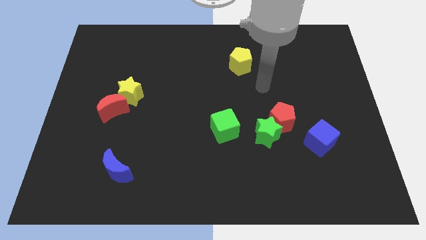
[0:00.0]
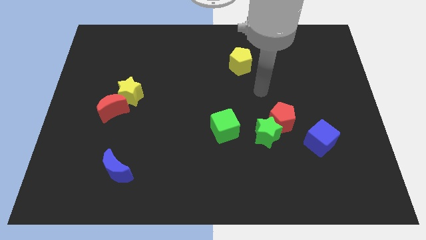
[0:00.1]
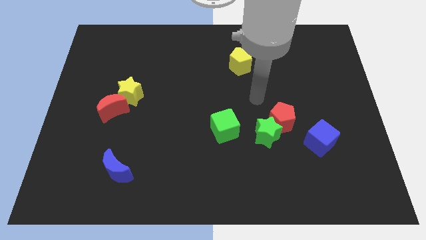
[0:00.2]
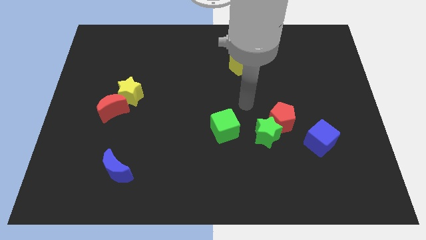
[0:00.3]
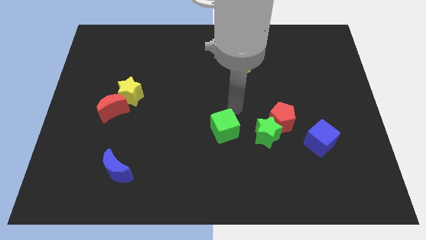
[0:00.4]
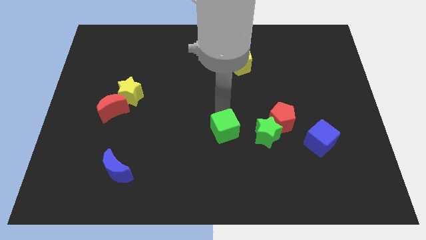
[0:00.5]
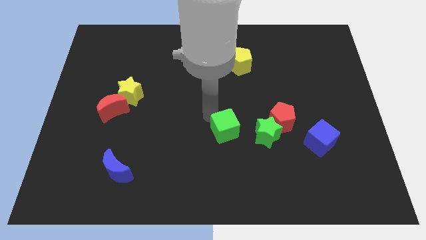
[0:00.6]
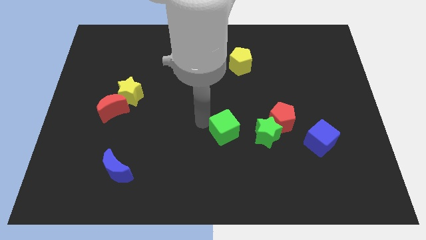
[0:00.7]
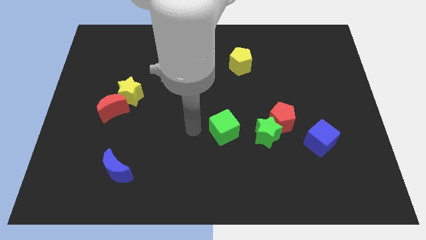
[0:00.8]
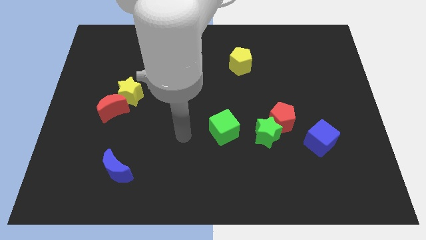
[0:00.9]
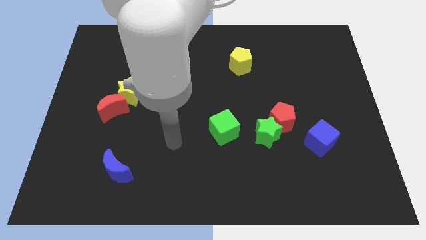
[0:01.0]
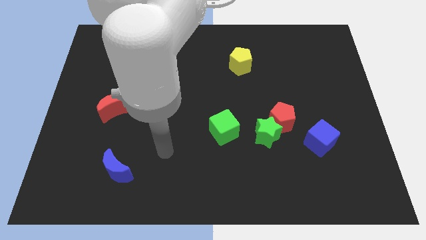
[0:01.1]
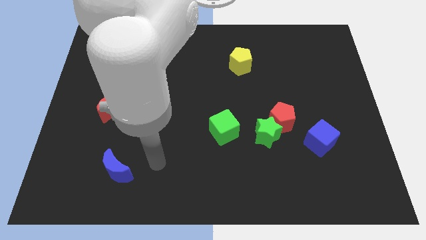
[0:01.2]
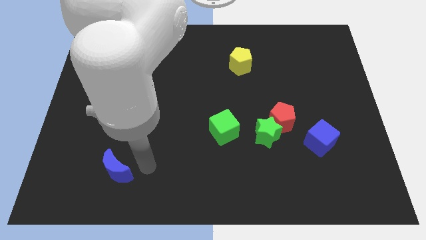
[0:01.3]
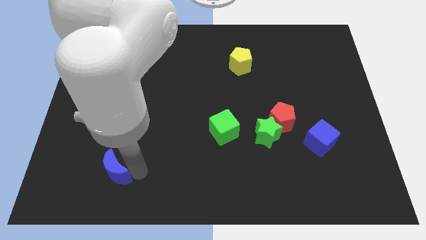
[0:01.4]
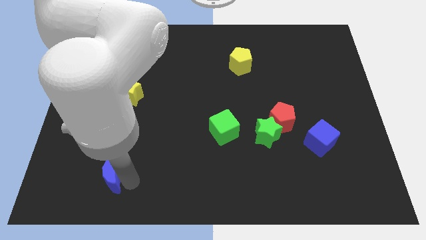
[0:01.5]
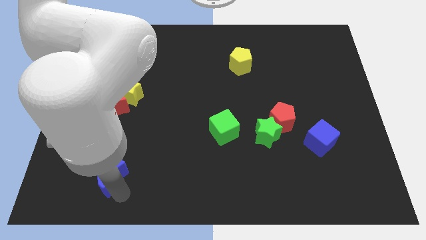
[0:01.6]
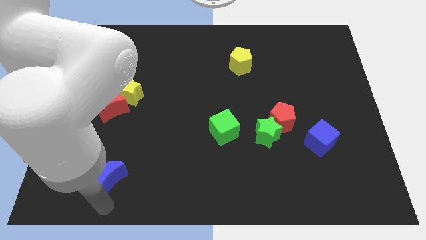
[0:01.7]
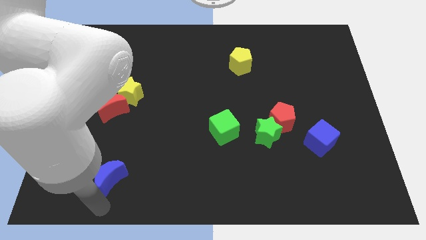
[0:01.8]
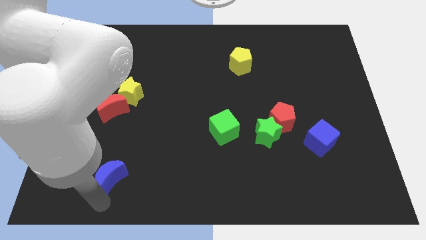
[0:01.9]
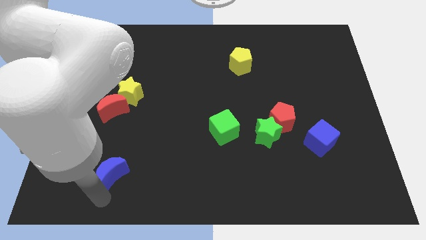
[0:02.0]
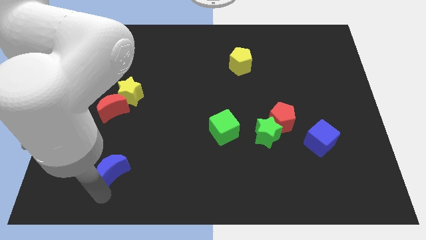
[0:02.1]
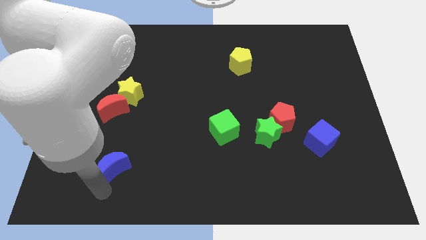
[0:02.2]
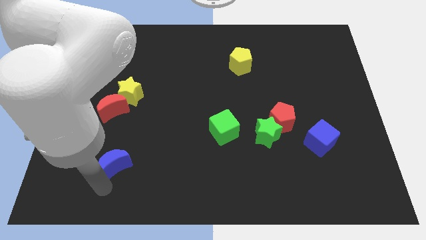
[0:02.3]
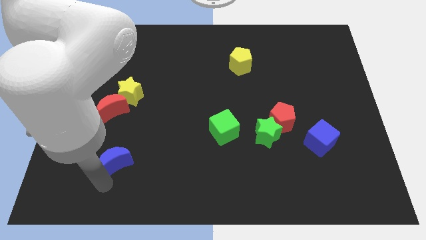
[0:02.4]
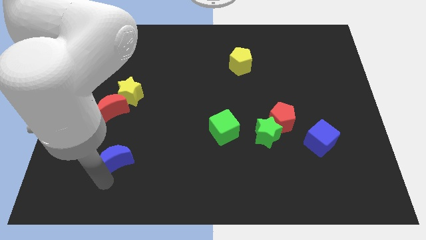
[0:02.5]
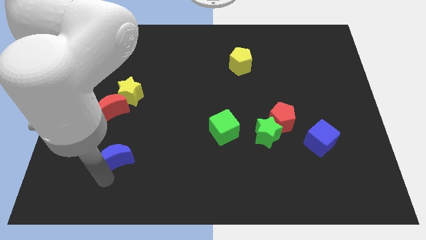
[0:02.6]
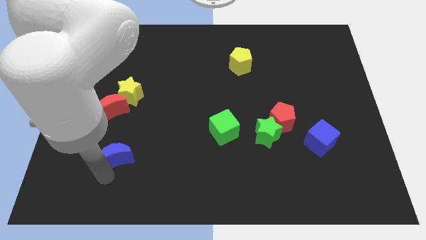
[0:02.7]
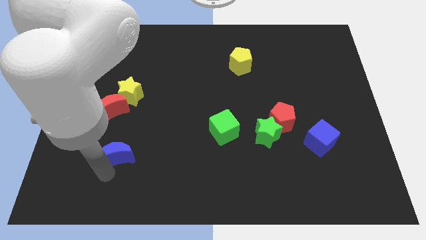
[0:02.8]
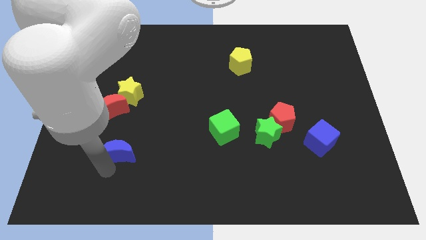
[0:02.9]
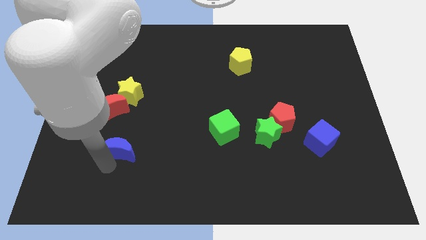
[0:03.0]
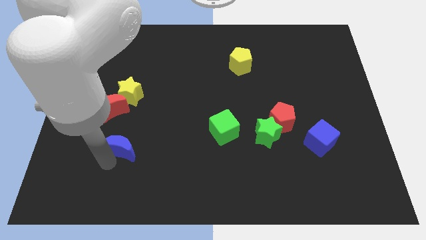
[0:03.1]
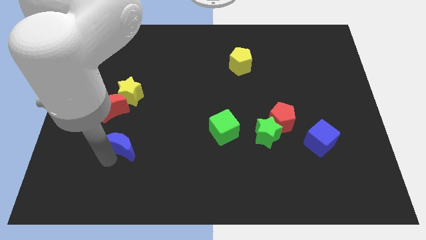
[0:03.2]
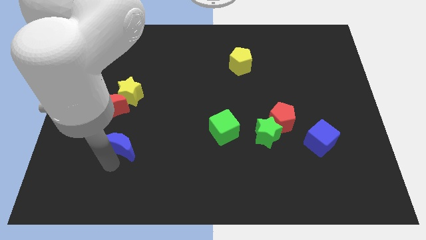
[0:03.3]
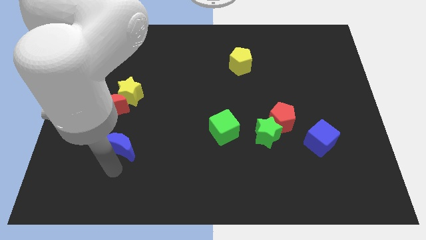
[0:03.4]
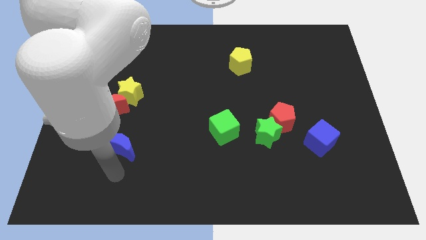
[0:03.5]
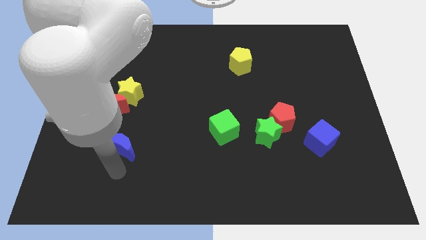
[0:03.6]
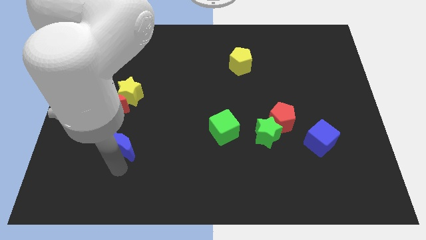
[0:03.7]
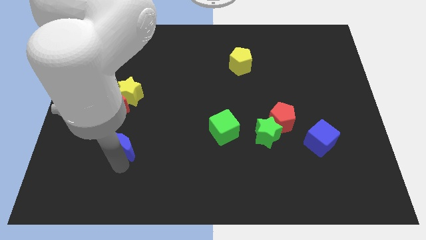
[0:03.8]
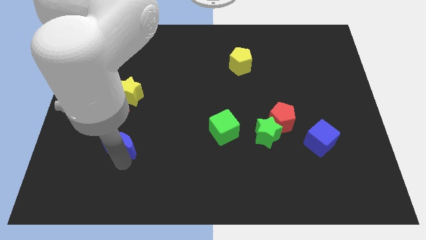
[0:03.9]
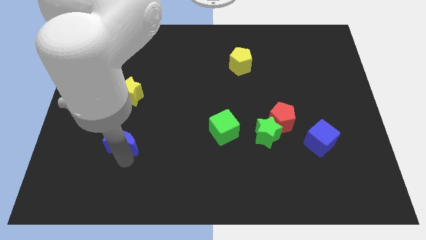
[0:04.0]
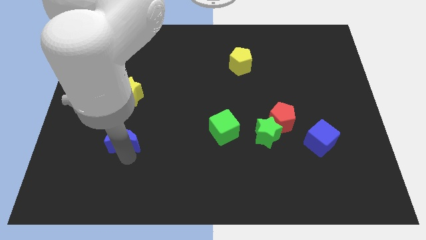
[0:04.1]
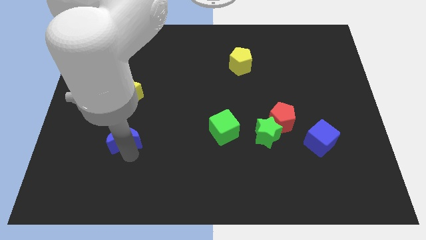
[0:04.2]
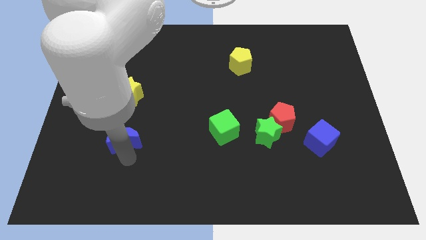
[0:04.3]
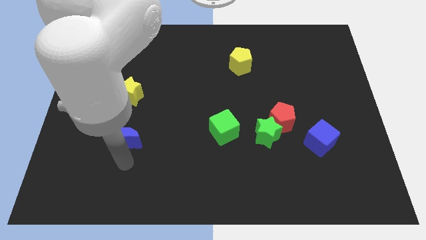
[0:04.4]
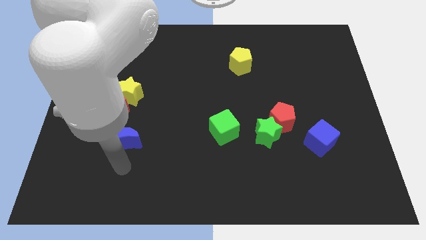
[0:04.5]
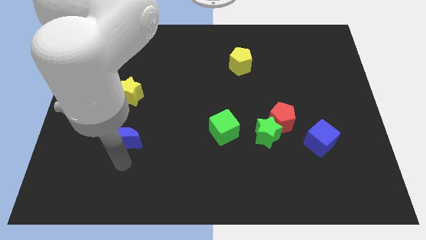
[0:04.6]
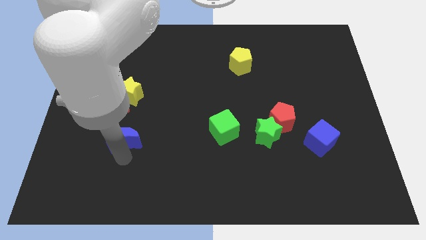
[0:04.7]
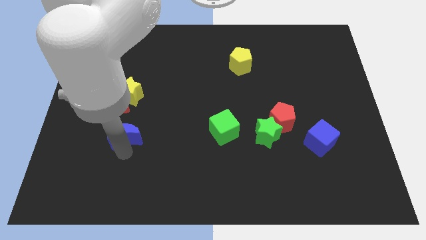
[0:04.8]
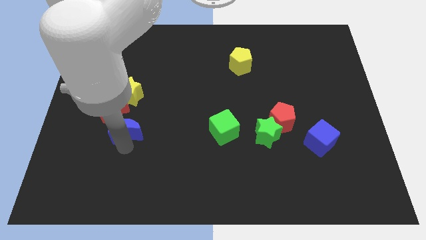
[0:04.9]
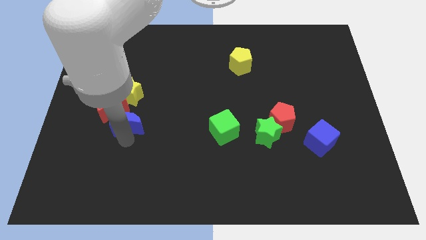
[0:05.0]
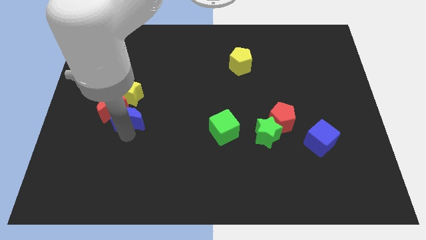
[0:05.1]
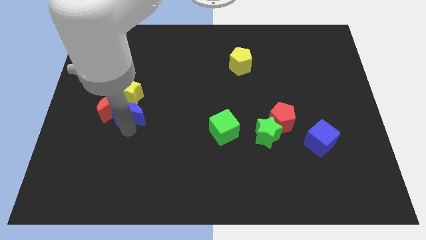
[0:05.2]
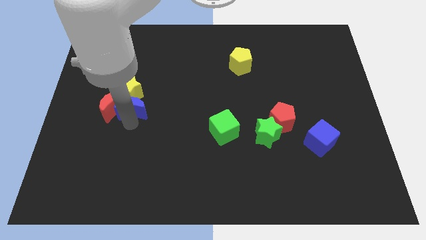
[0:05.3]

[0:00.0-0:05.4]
push the blue moon close to the yellow star

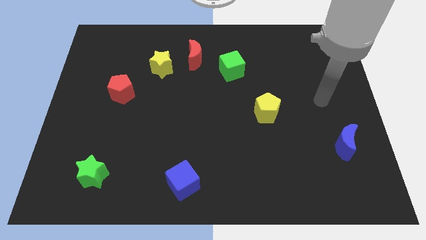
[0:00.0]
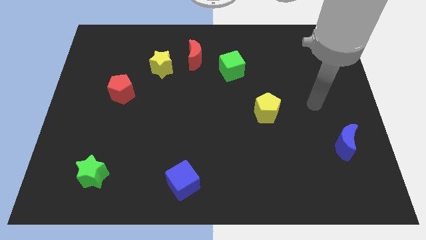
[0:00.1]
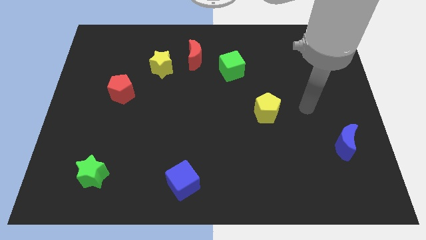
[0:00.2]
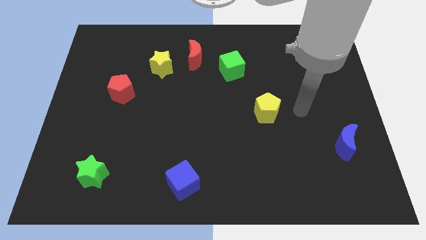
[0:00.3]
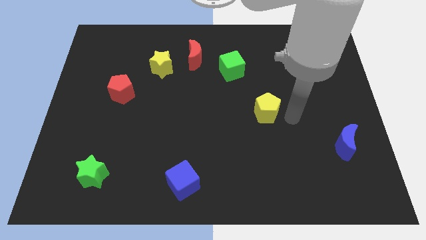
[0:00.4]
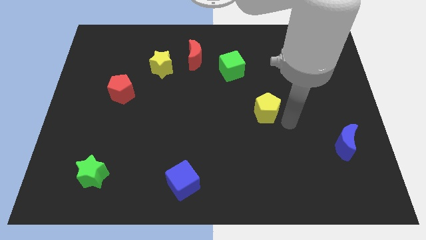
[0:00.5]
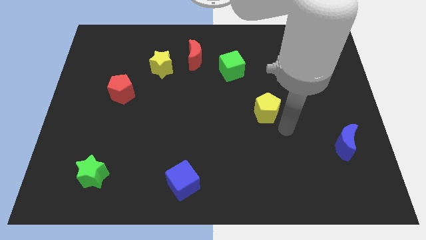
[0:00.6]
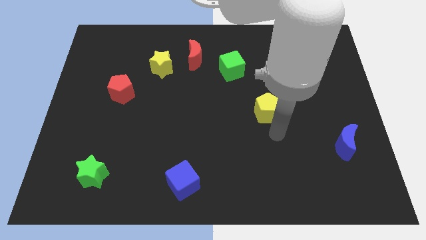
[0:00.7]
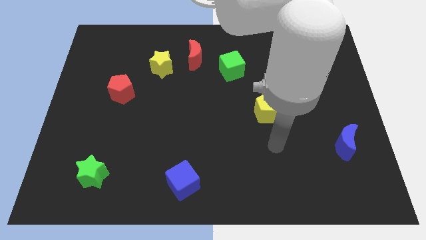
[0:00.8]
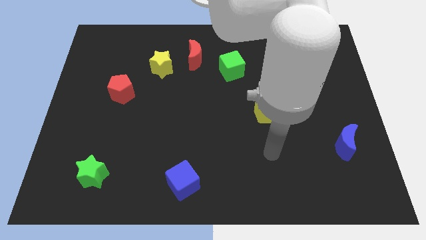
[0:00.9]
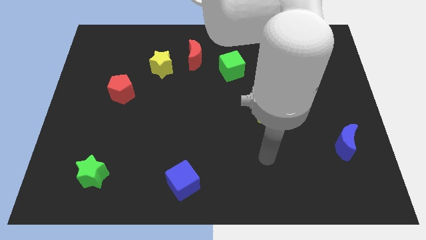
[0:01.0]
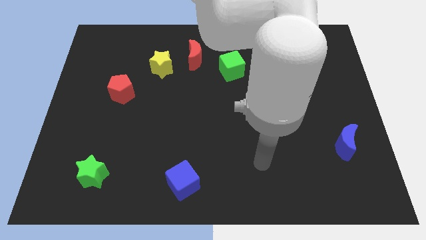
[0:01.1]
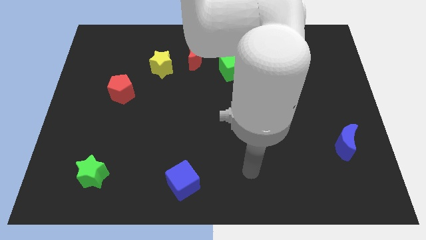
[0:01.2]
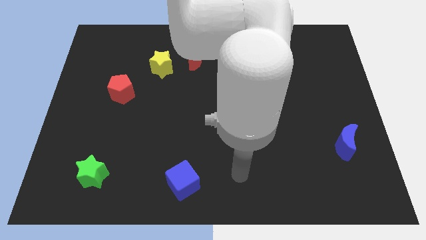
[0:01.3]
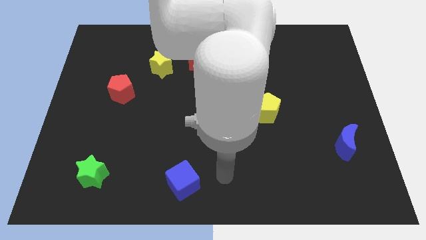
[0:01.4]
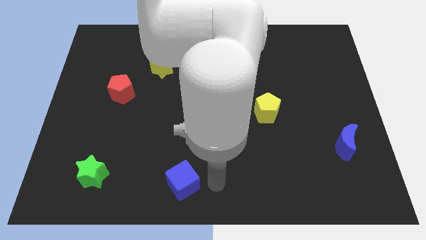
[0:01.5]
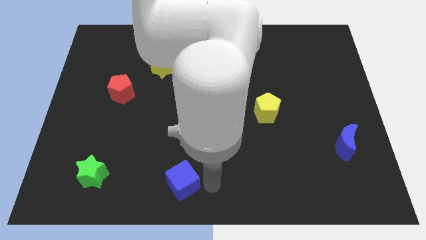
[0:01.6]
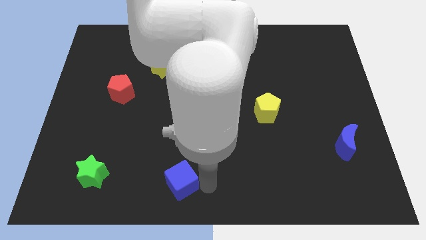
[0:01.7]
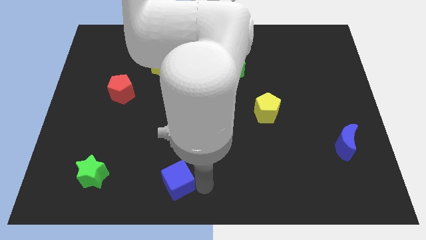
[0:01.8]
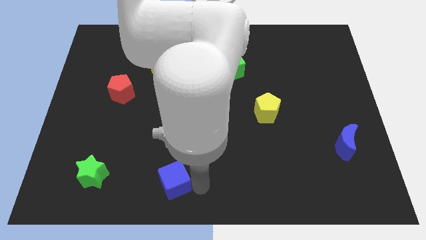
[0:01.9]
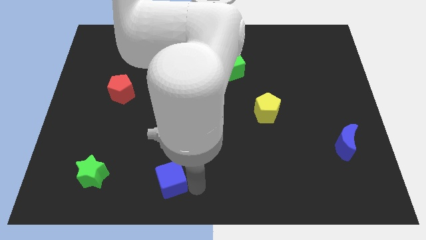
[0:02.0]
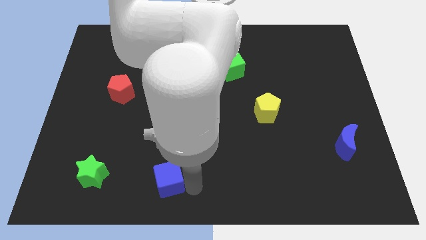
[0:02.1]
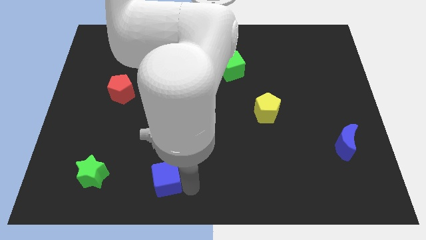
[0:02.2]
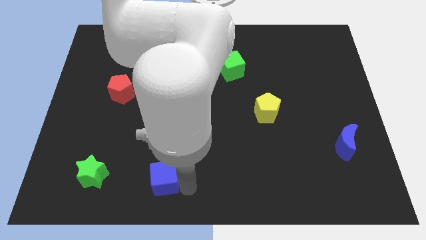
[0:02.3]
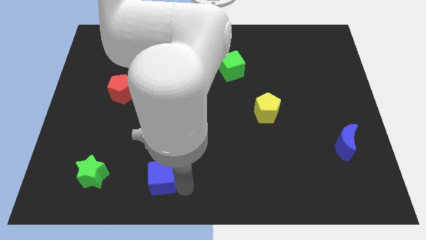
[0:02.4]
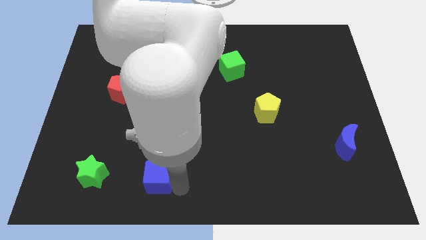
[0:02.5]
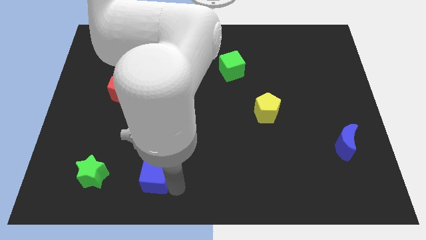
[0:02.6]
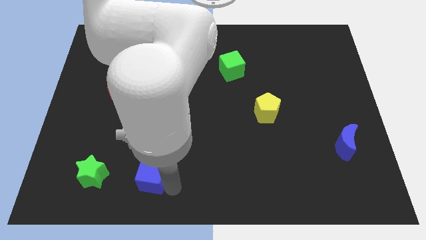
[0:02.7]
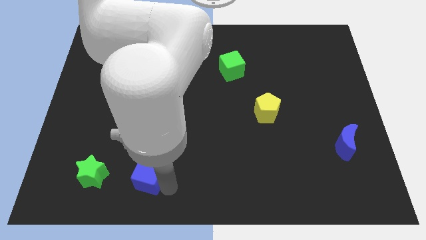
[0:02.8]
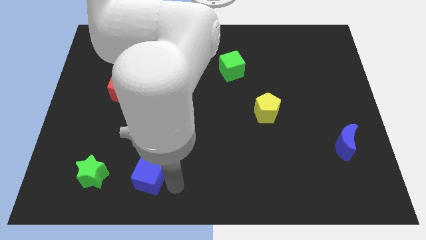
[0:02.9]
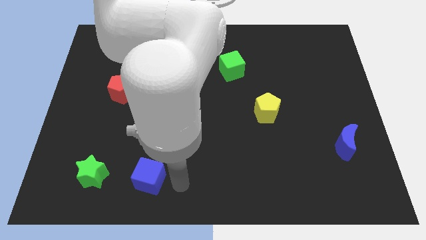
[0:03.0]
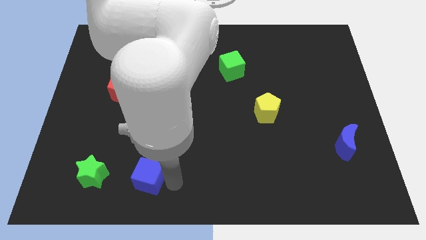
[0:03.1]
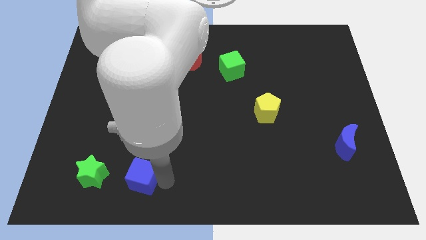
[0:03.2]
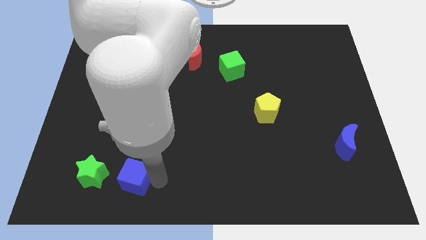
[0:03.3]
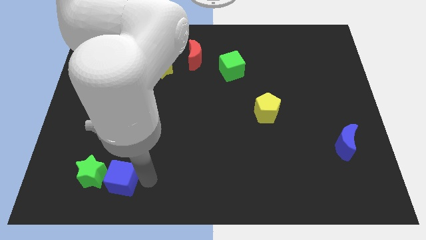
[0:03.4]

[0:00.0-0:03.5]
move the blue cube to the green star
